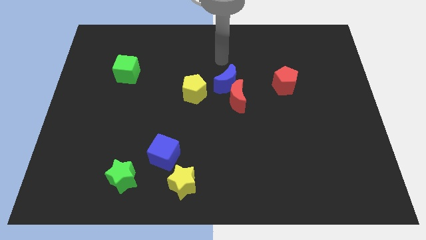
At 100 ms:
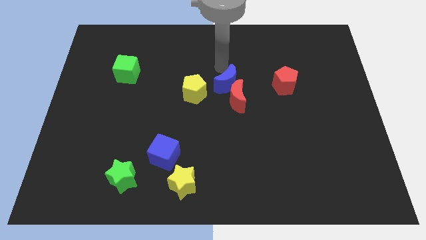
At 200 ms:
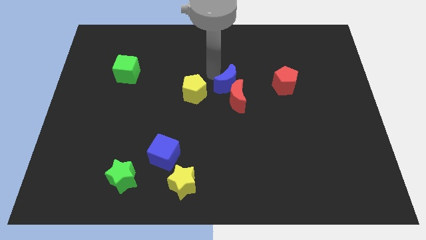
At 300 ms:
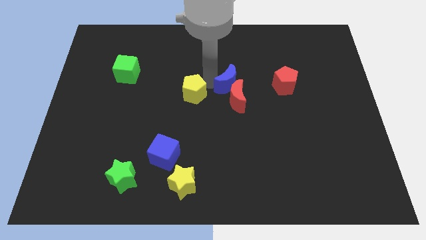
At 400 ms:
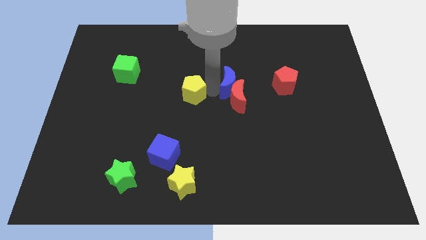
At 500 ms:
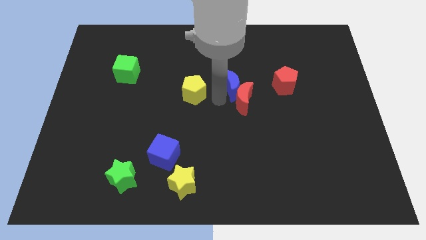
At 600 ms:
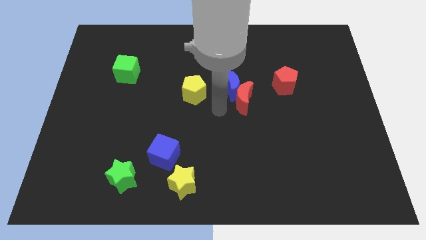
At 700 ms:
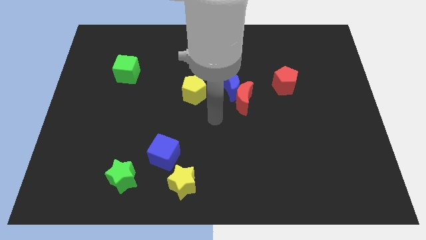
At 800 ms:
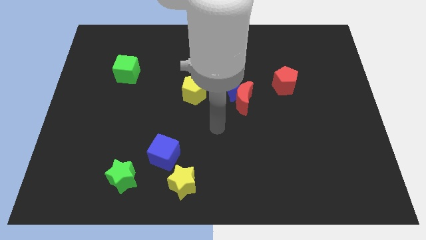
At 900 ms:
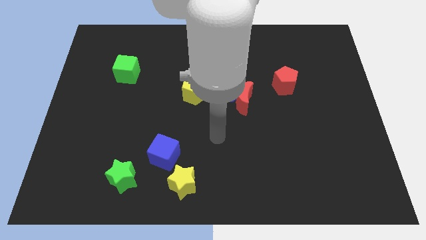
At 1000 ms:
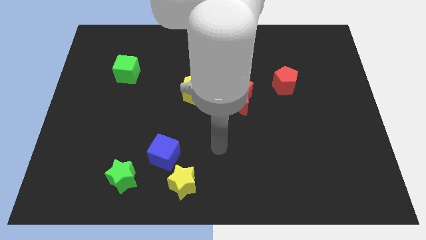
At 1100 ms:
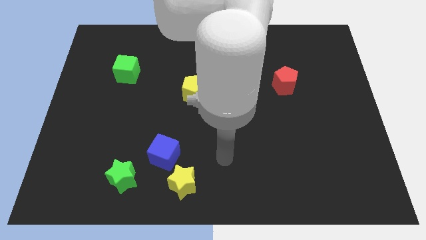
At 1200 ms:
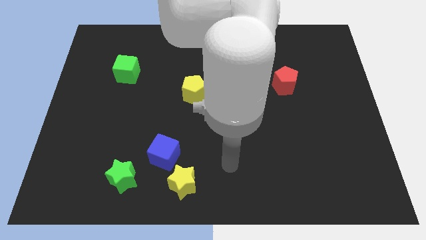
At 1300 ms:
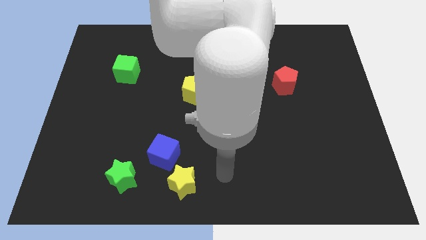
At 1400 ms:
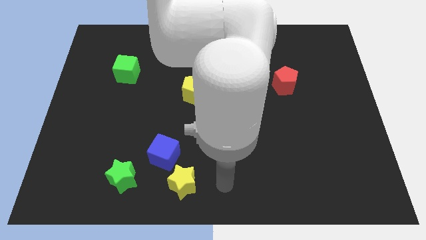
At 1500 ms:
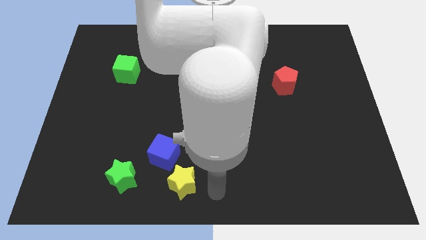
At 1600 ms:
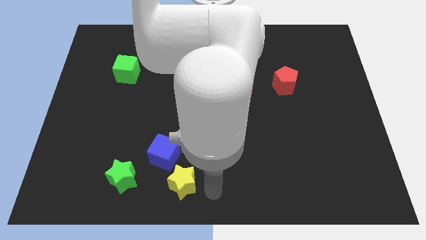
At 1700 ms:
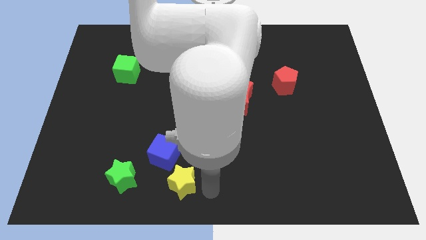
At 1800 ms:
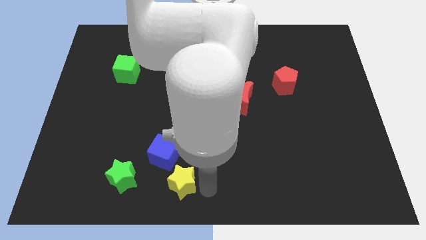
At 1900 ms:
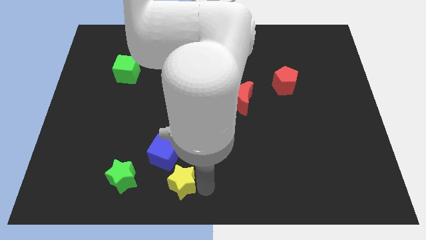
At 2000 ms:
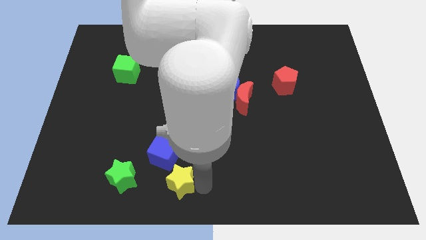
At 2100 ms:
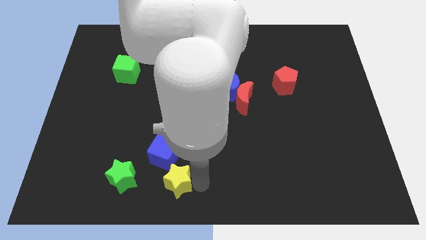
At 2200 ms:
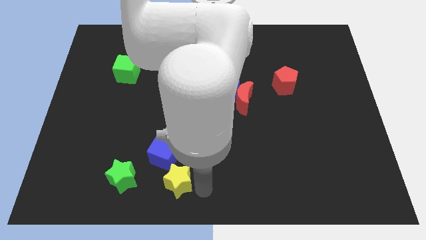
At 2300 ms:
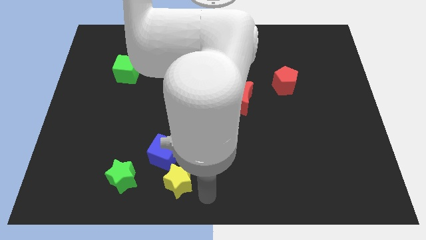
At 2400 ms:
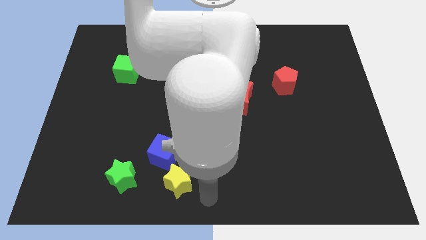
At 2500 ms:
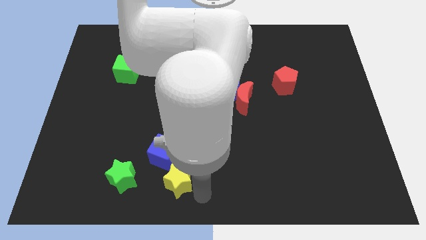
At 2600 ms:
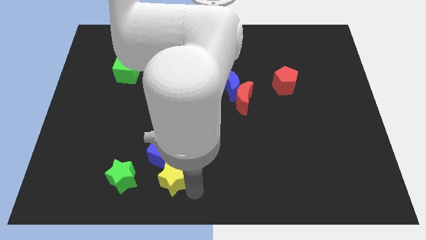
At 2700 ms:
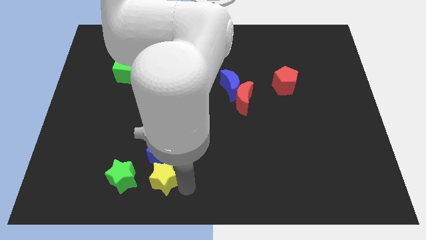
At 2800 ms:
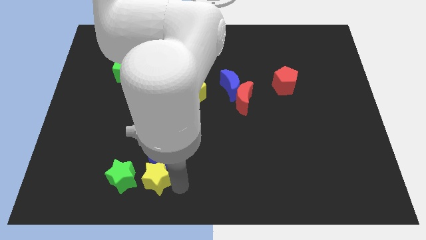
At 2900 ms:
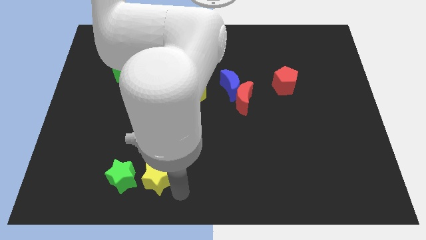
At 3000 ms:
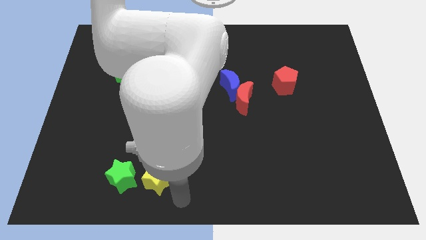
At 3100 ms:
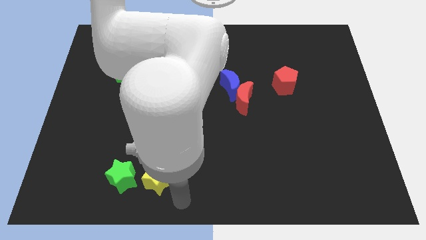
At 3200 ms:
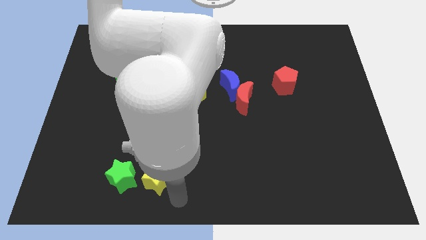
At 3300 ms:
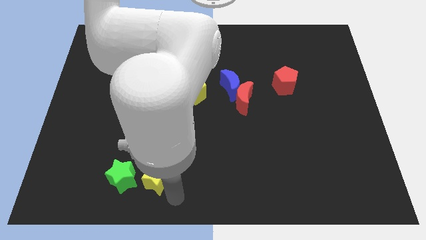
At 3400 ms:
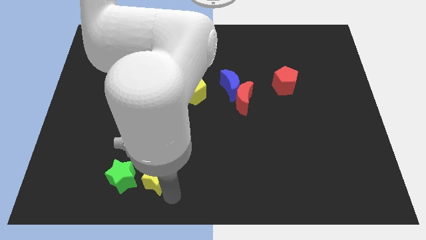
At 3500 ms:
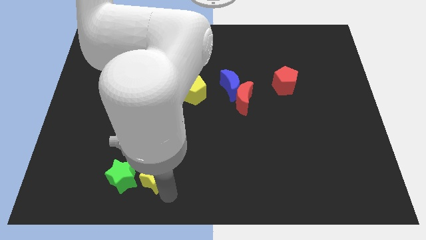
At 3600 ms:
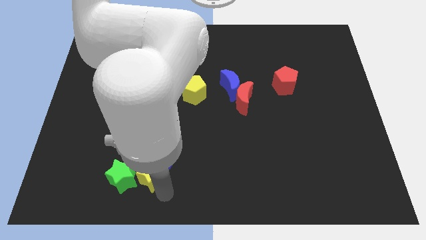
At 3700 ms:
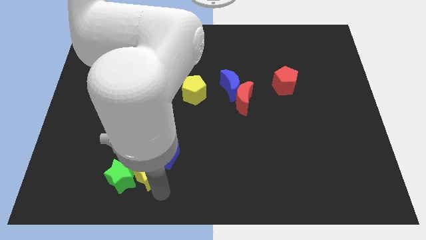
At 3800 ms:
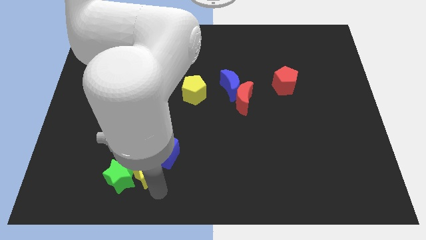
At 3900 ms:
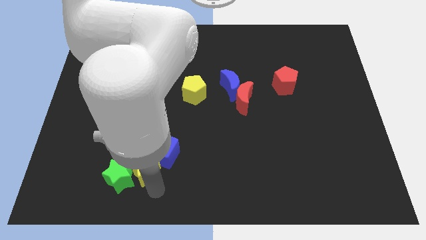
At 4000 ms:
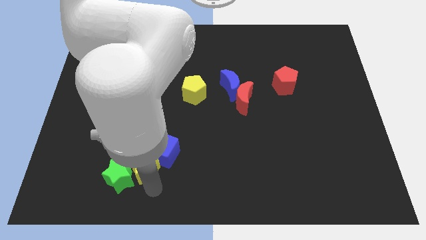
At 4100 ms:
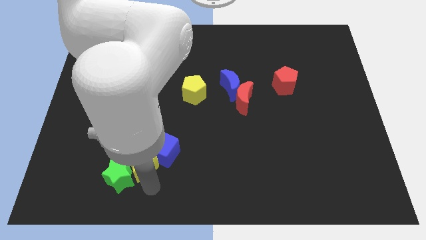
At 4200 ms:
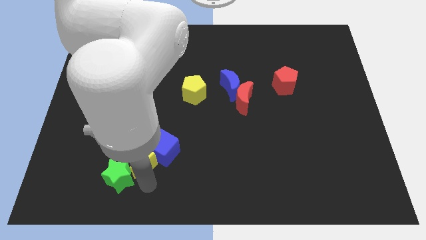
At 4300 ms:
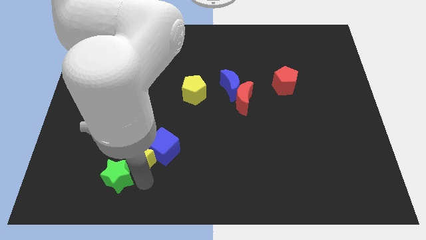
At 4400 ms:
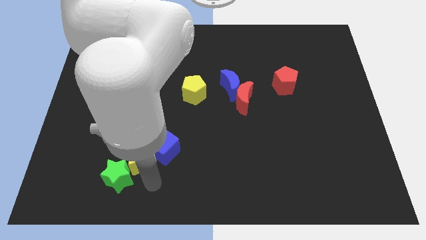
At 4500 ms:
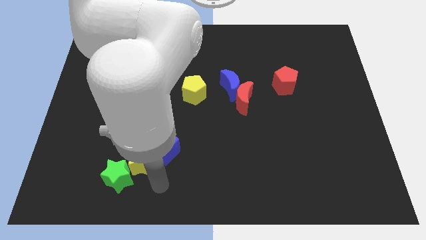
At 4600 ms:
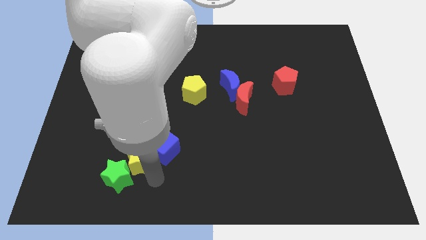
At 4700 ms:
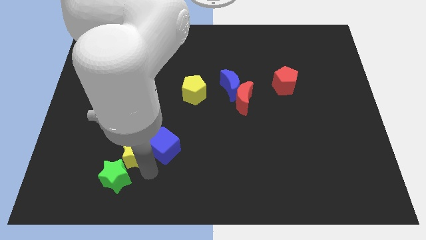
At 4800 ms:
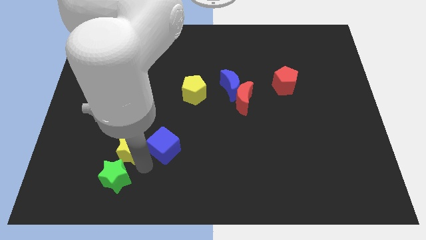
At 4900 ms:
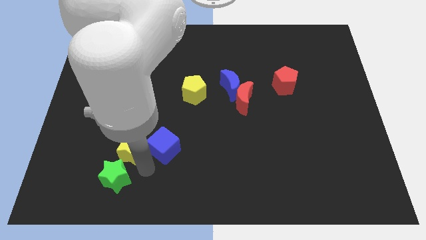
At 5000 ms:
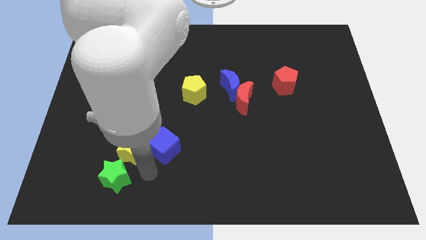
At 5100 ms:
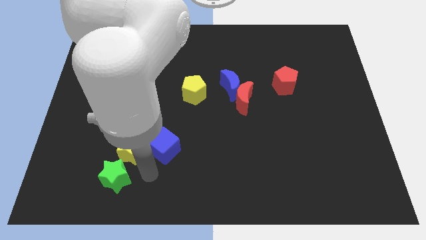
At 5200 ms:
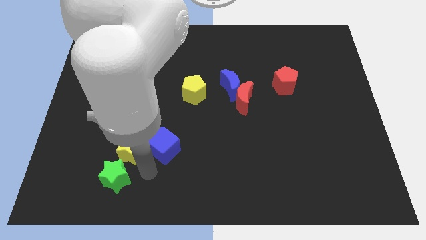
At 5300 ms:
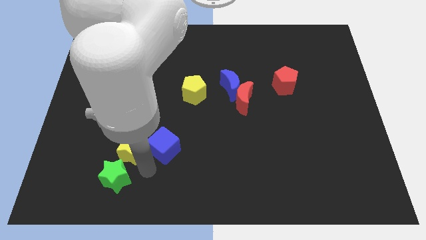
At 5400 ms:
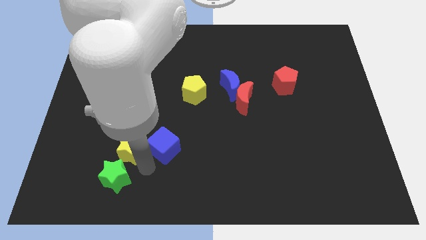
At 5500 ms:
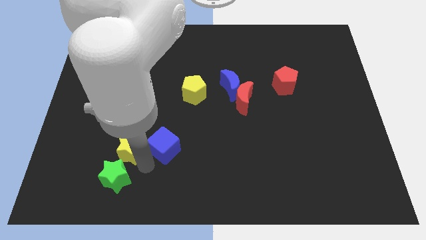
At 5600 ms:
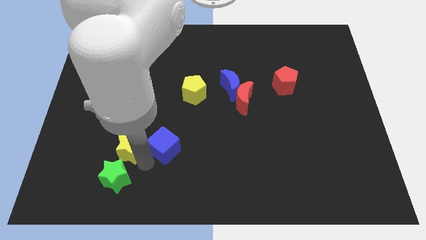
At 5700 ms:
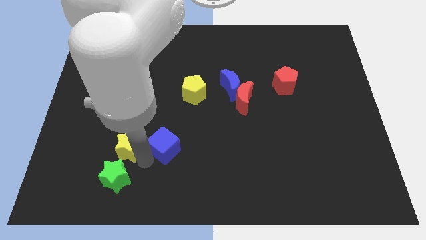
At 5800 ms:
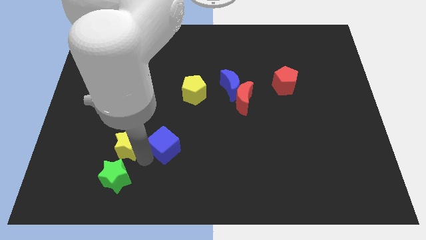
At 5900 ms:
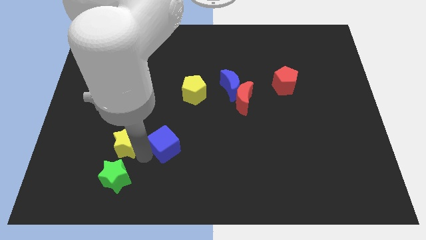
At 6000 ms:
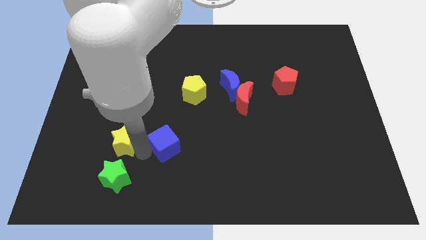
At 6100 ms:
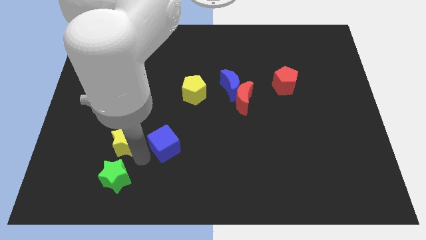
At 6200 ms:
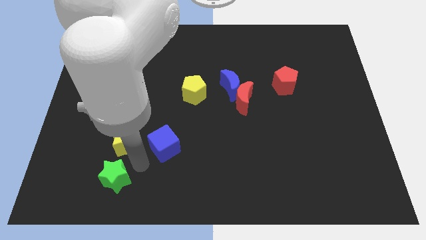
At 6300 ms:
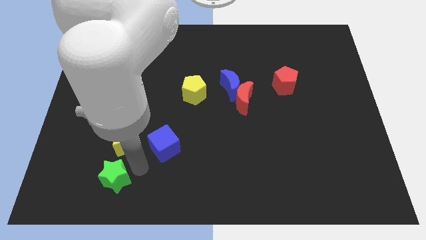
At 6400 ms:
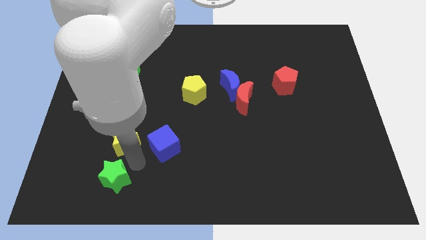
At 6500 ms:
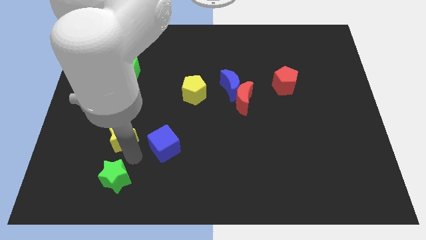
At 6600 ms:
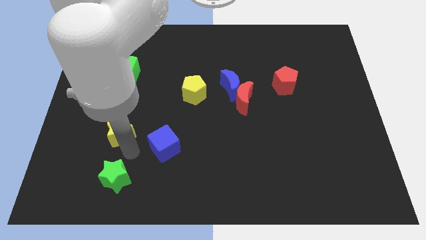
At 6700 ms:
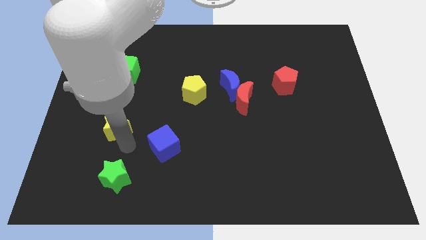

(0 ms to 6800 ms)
push the yellow star upwards and then left

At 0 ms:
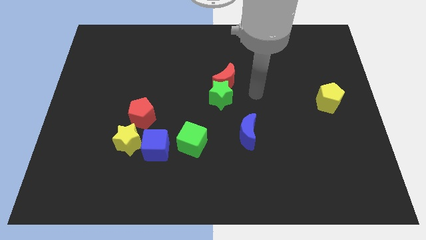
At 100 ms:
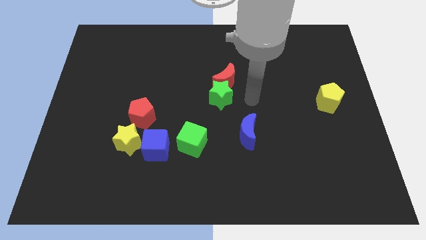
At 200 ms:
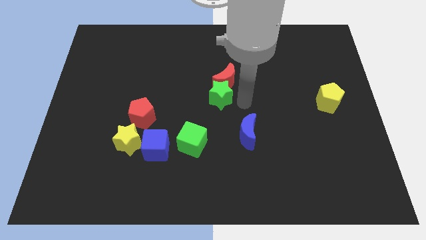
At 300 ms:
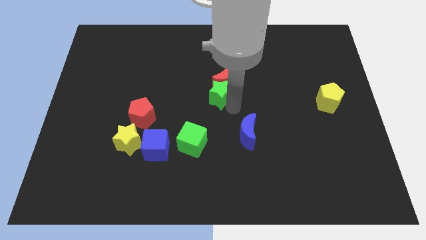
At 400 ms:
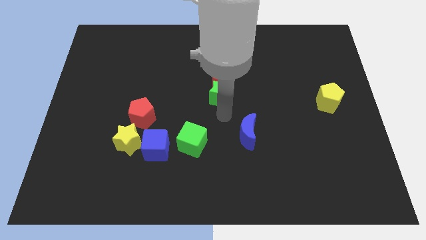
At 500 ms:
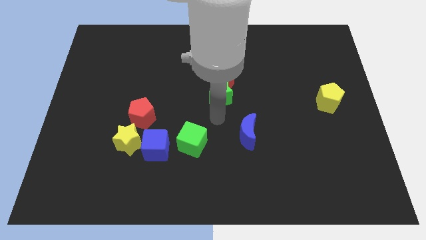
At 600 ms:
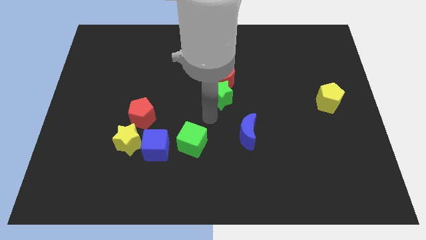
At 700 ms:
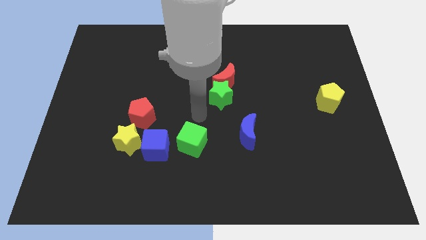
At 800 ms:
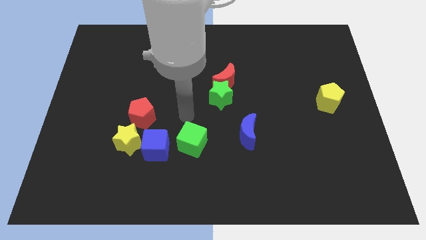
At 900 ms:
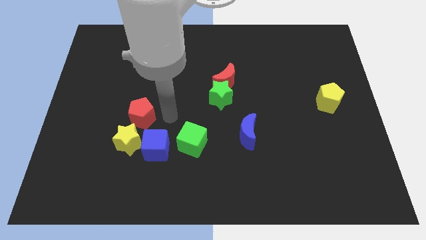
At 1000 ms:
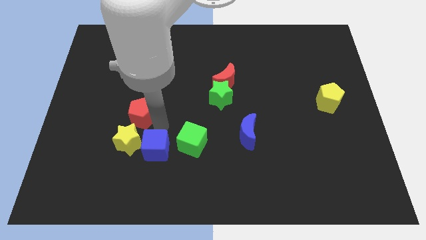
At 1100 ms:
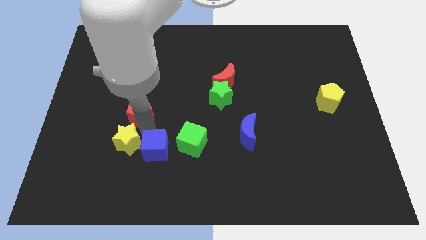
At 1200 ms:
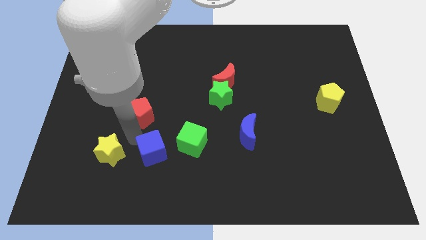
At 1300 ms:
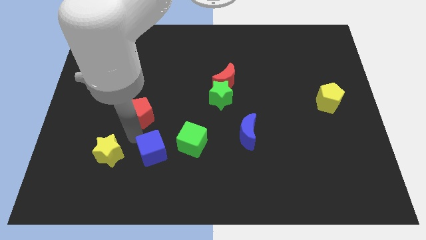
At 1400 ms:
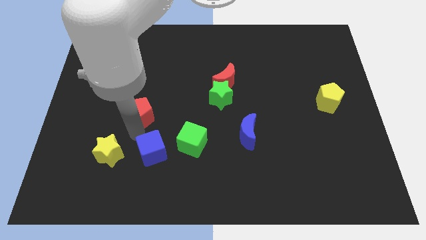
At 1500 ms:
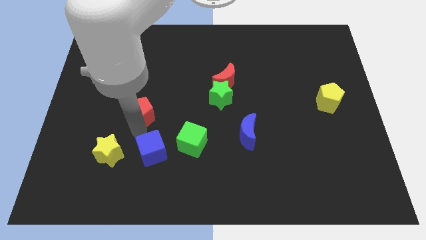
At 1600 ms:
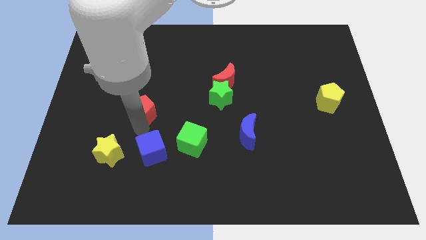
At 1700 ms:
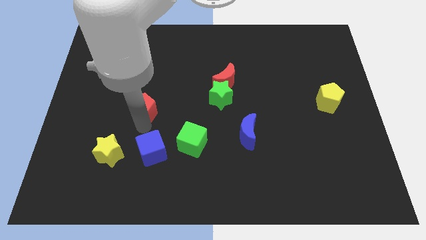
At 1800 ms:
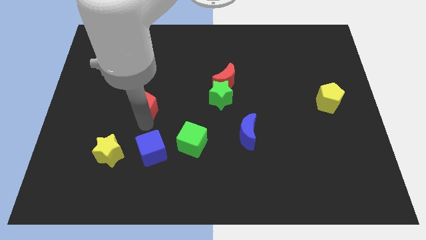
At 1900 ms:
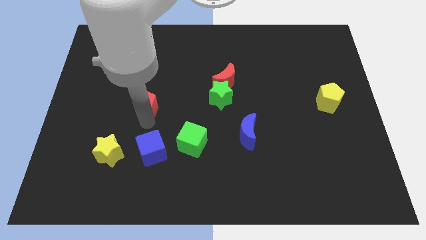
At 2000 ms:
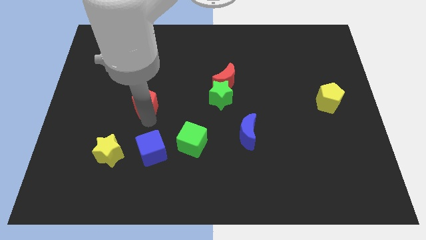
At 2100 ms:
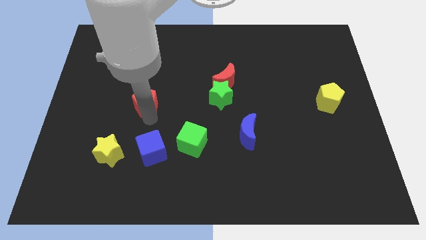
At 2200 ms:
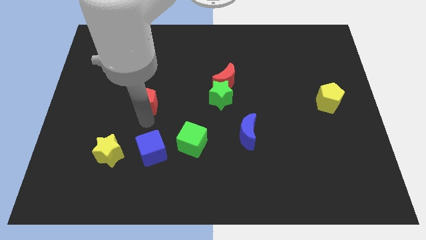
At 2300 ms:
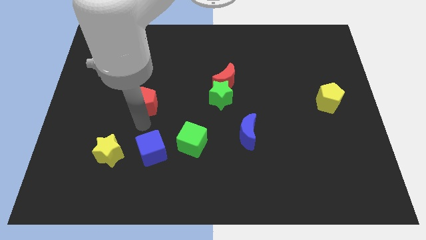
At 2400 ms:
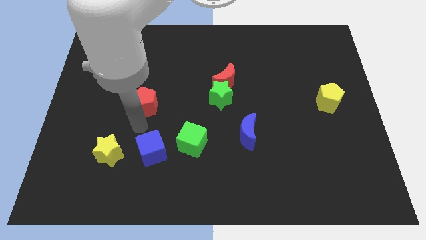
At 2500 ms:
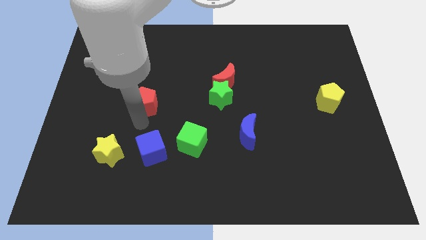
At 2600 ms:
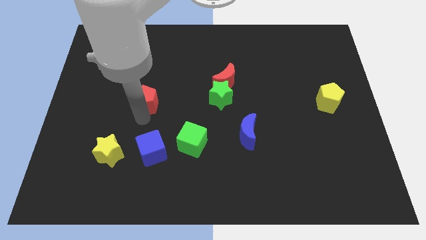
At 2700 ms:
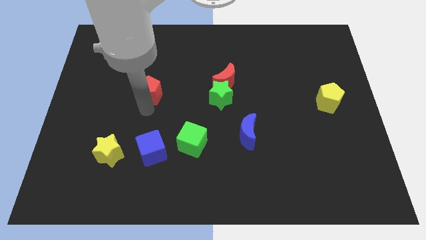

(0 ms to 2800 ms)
slightly slide the red pentagon up
